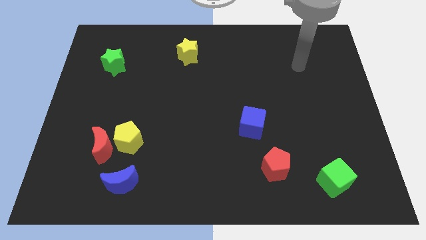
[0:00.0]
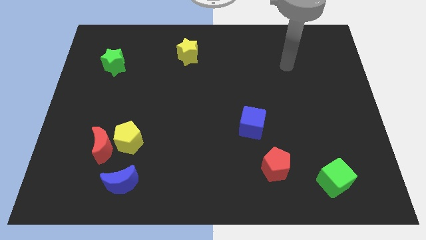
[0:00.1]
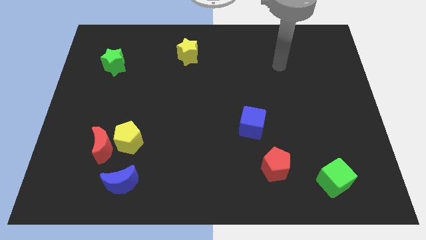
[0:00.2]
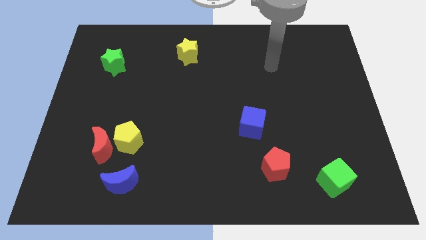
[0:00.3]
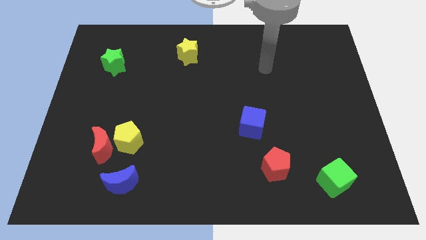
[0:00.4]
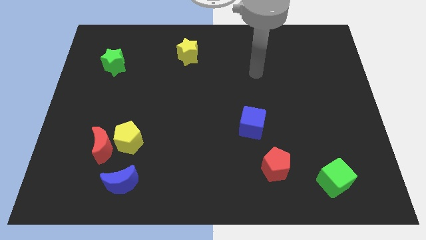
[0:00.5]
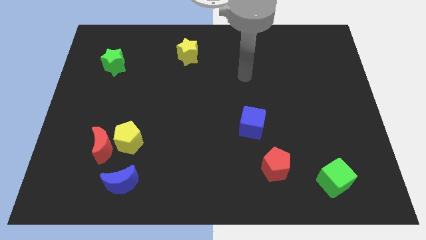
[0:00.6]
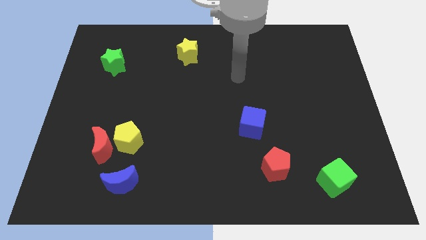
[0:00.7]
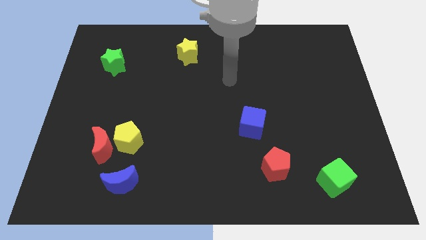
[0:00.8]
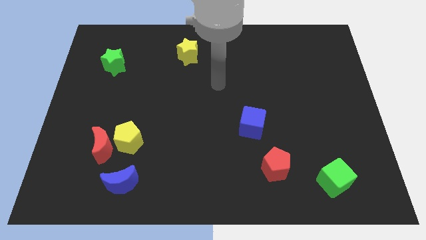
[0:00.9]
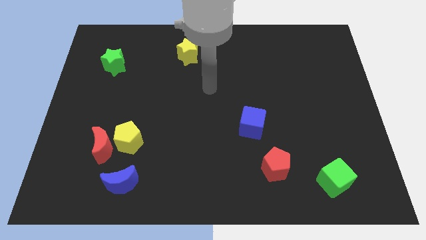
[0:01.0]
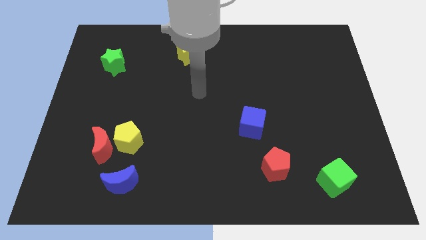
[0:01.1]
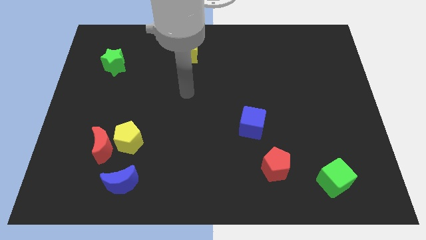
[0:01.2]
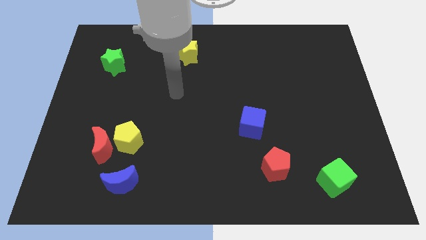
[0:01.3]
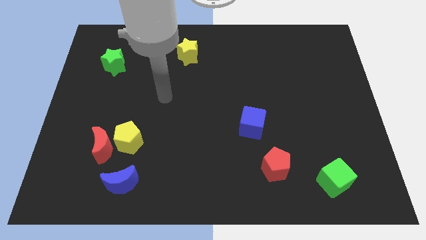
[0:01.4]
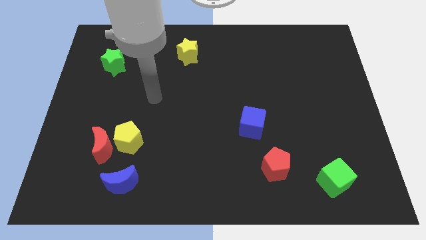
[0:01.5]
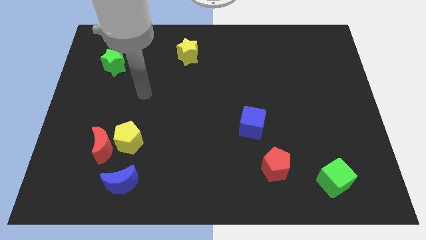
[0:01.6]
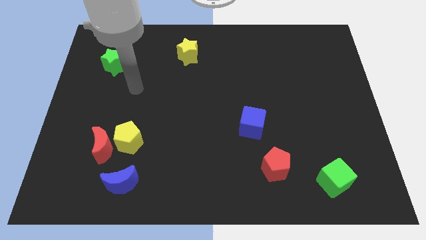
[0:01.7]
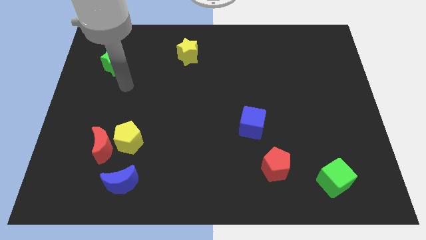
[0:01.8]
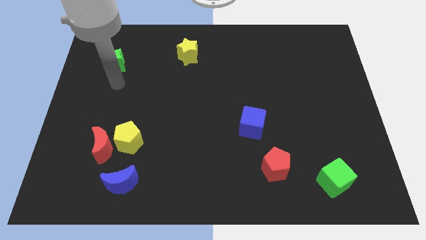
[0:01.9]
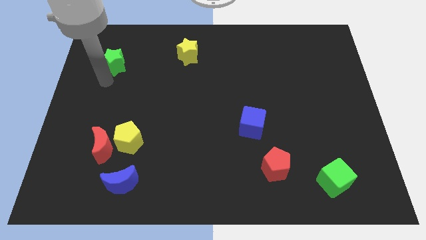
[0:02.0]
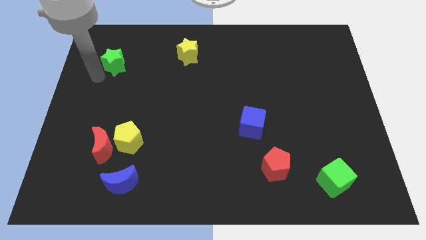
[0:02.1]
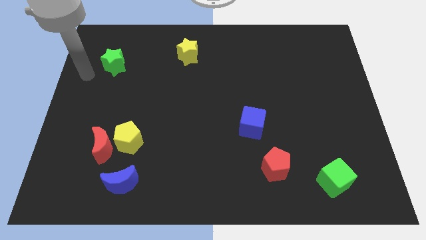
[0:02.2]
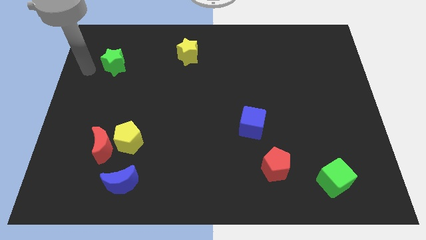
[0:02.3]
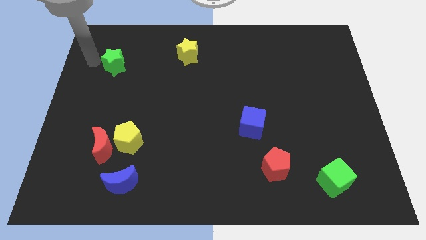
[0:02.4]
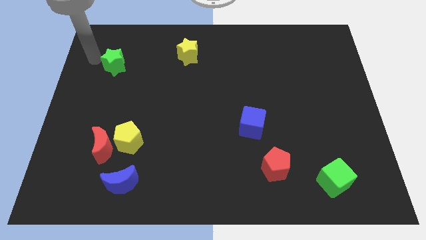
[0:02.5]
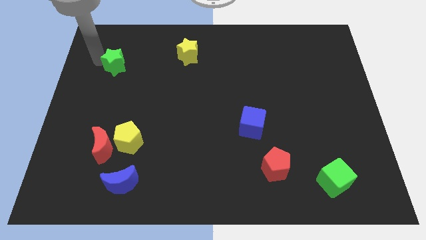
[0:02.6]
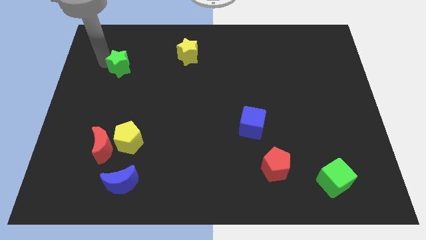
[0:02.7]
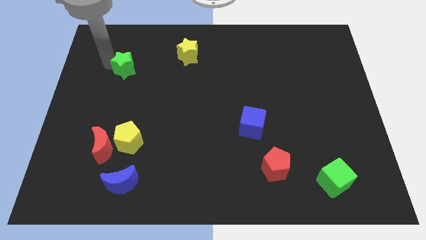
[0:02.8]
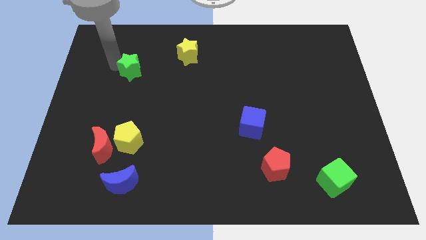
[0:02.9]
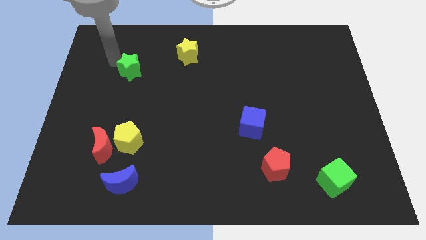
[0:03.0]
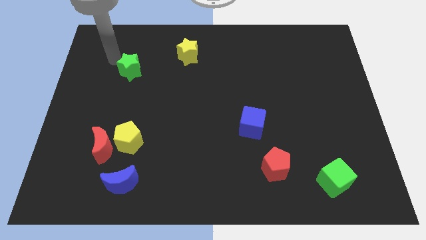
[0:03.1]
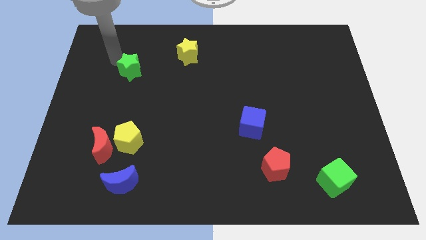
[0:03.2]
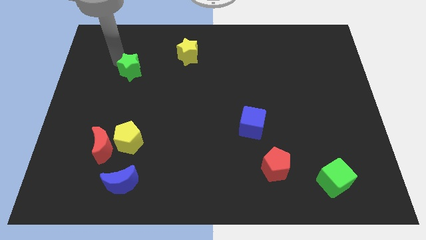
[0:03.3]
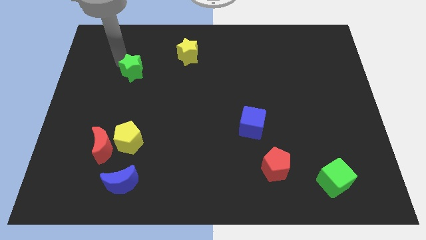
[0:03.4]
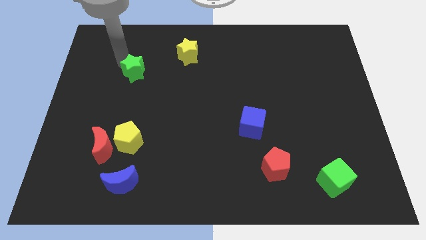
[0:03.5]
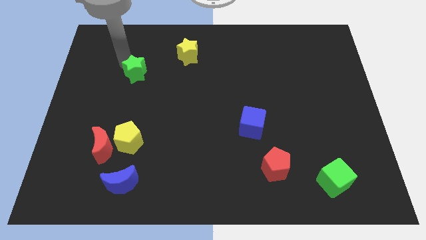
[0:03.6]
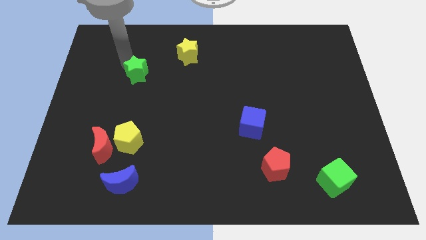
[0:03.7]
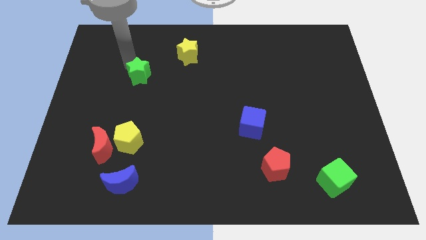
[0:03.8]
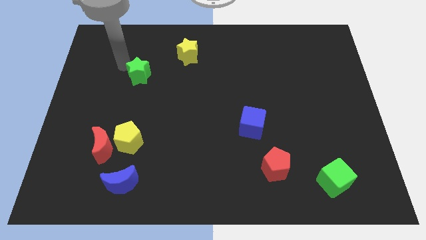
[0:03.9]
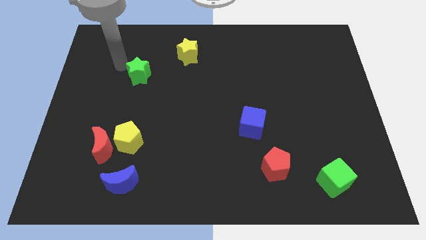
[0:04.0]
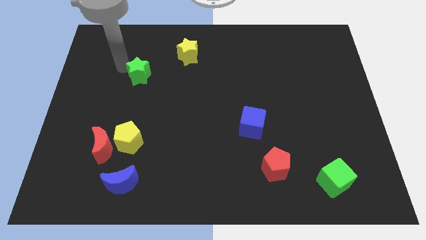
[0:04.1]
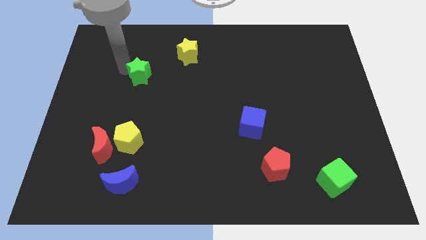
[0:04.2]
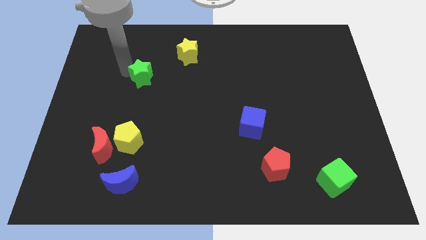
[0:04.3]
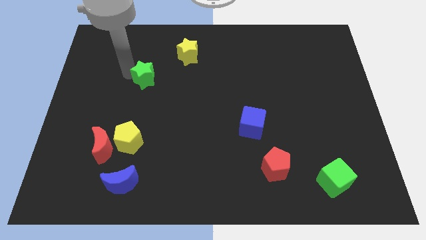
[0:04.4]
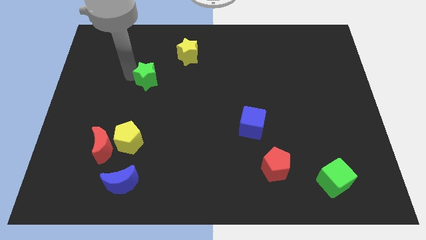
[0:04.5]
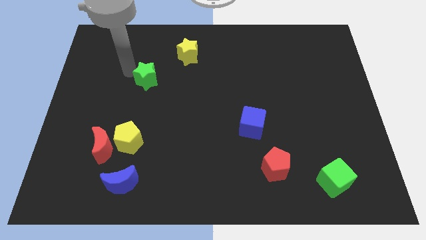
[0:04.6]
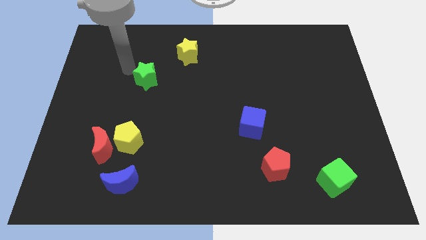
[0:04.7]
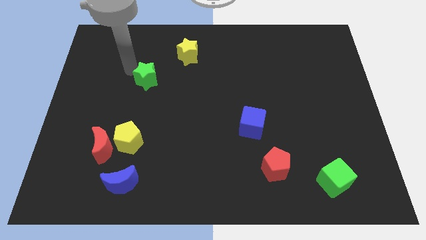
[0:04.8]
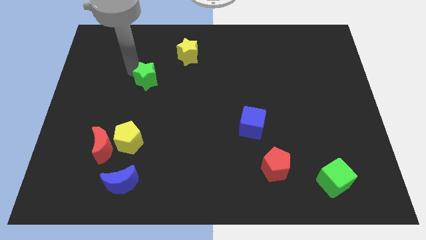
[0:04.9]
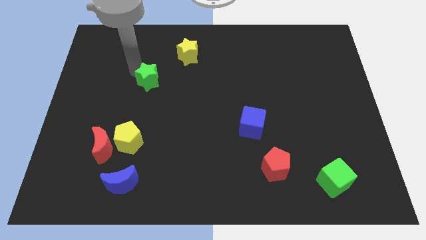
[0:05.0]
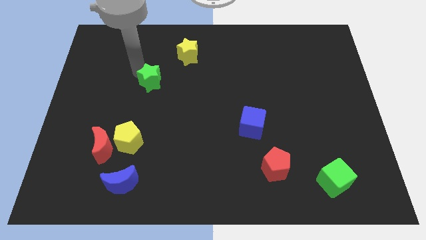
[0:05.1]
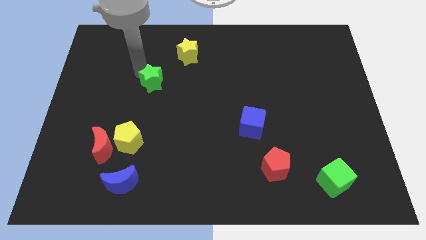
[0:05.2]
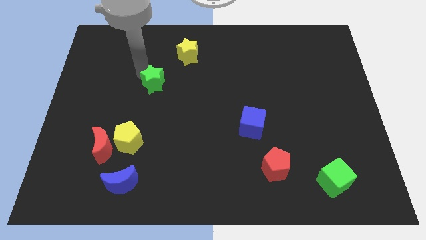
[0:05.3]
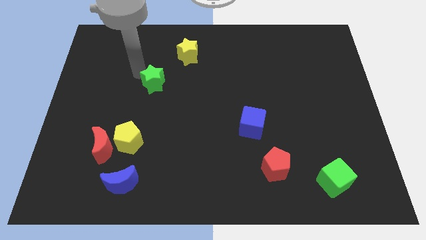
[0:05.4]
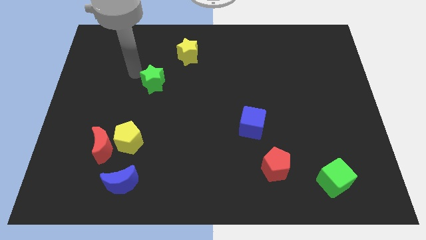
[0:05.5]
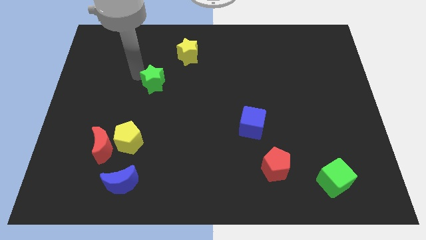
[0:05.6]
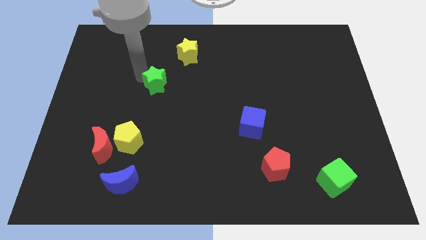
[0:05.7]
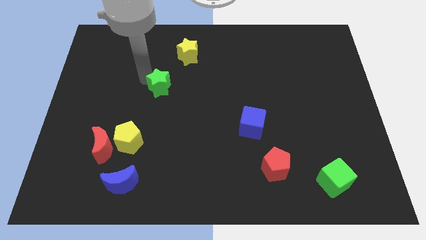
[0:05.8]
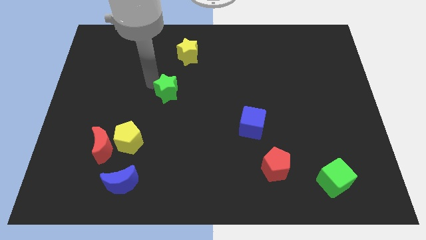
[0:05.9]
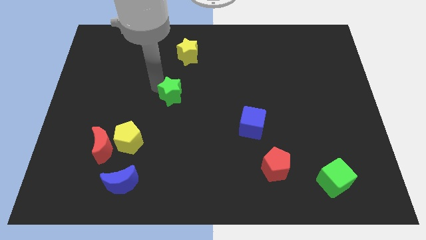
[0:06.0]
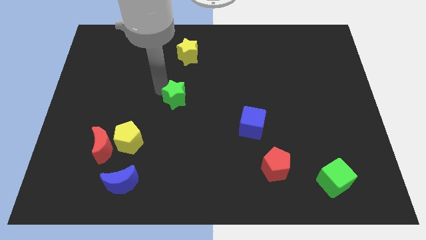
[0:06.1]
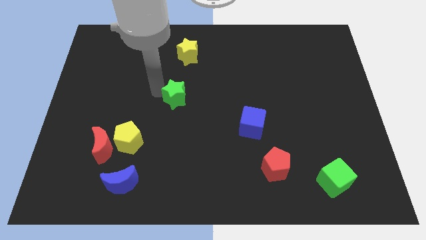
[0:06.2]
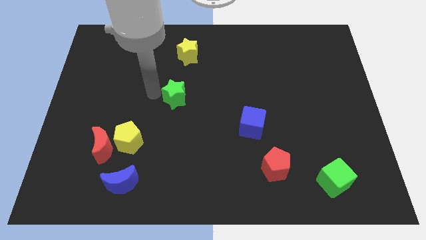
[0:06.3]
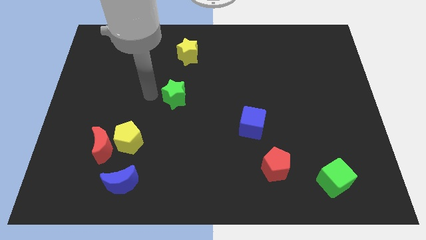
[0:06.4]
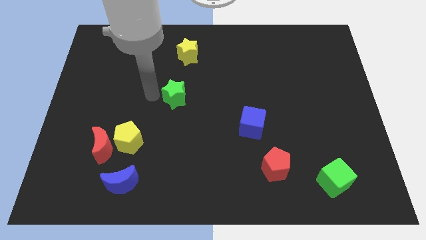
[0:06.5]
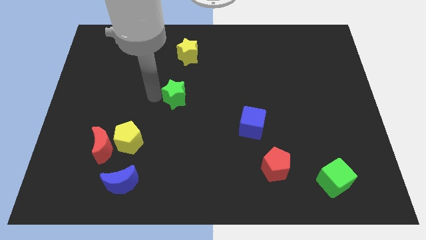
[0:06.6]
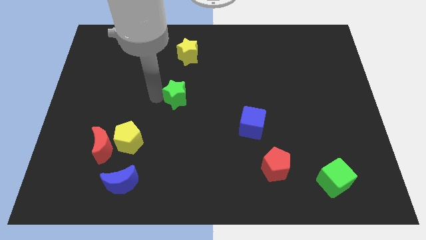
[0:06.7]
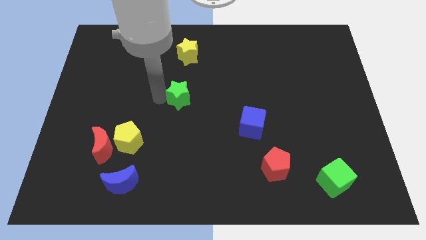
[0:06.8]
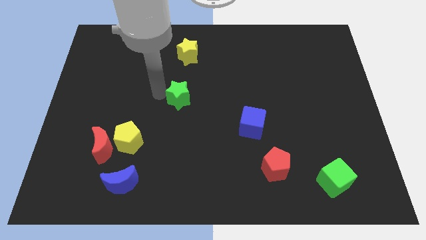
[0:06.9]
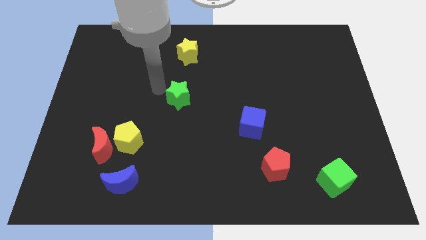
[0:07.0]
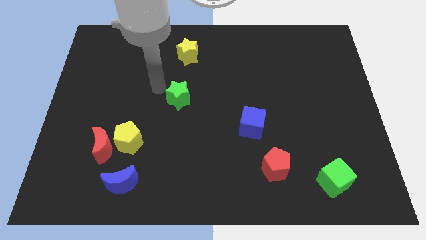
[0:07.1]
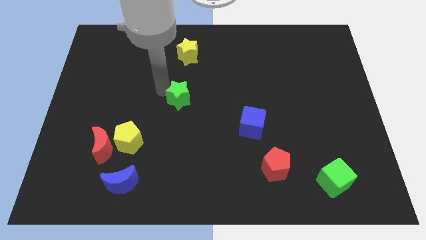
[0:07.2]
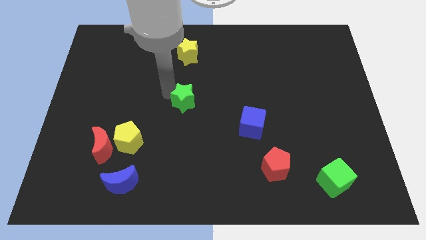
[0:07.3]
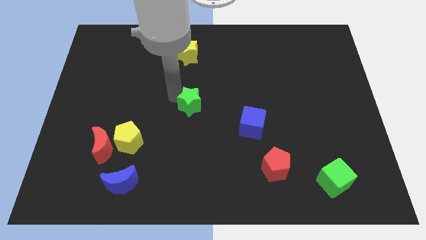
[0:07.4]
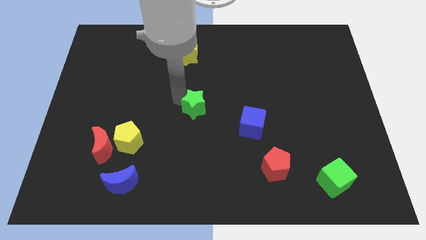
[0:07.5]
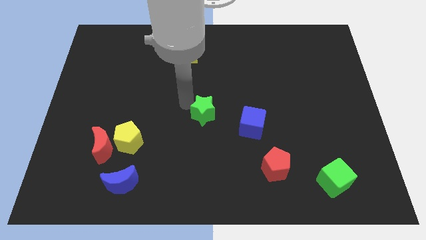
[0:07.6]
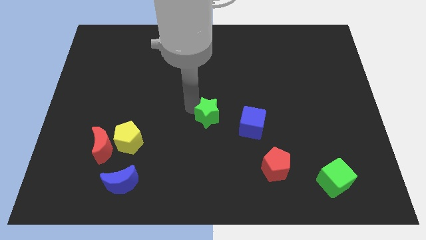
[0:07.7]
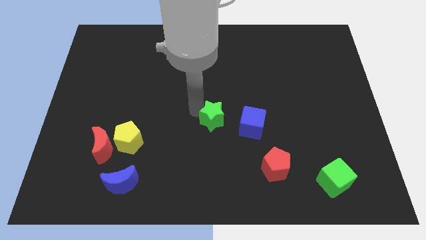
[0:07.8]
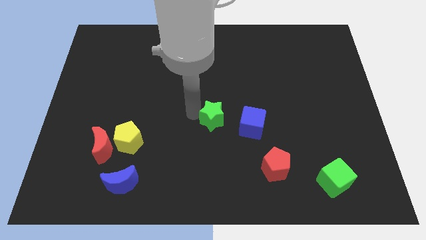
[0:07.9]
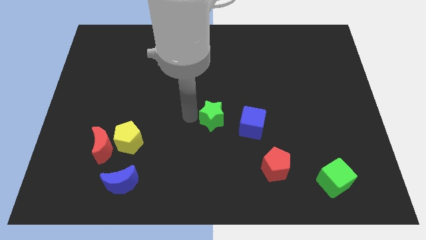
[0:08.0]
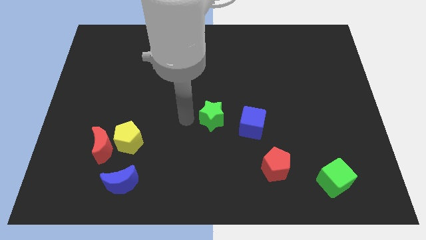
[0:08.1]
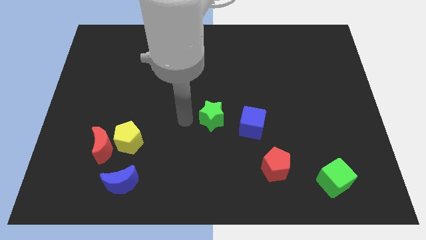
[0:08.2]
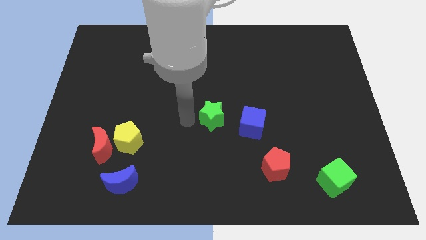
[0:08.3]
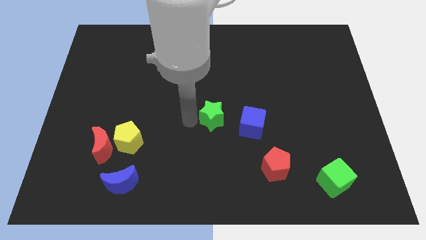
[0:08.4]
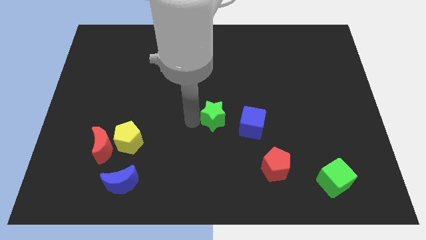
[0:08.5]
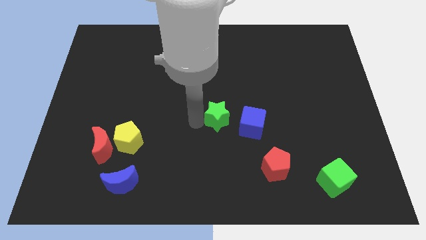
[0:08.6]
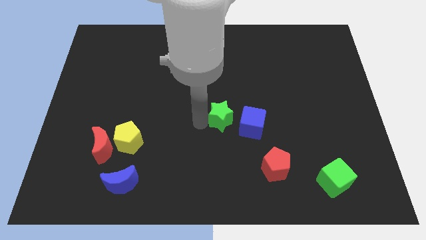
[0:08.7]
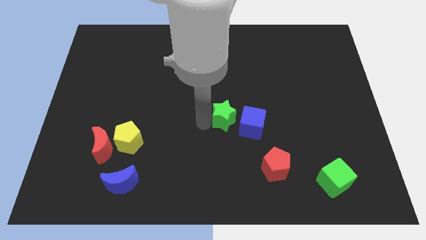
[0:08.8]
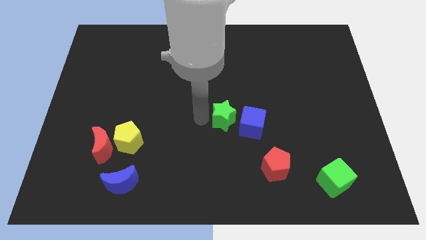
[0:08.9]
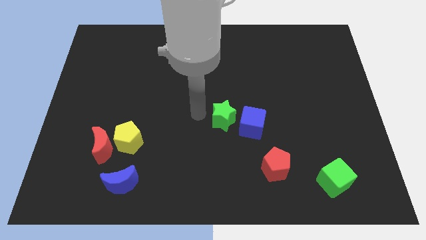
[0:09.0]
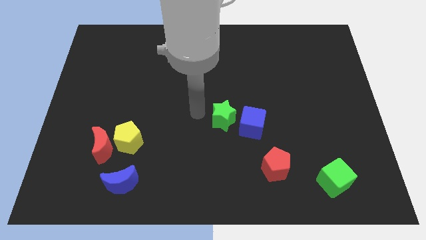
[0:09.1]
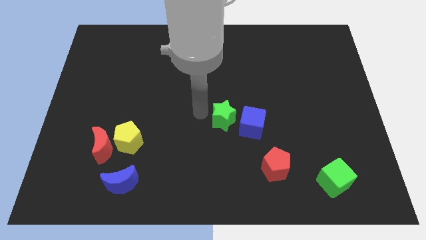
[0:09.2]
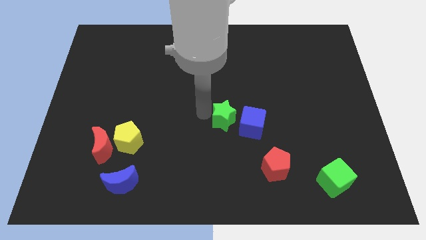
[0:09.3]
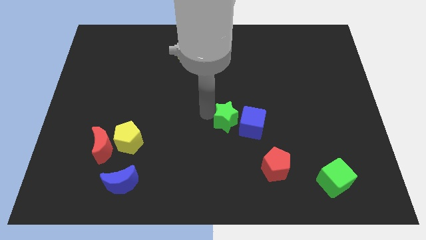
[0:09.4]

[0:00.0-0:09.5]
move the green star close to the blue cube
